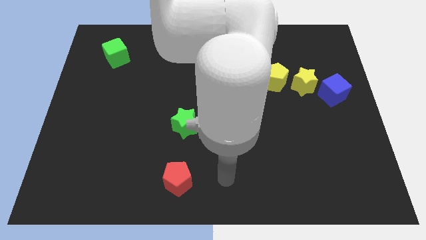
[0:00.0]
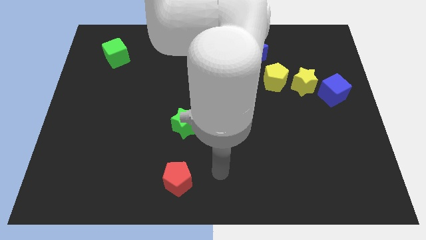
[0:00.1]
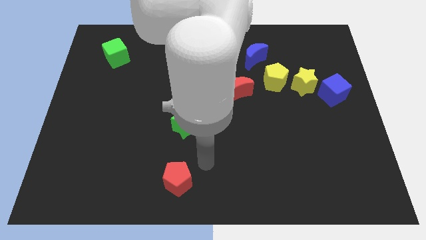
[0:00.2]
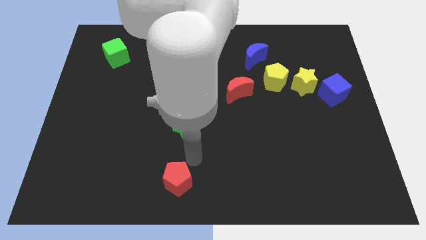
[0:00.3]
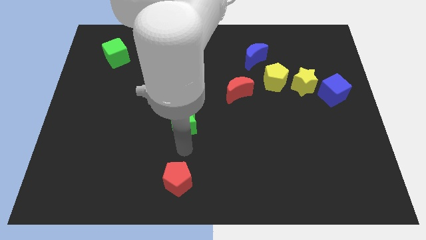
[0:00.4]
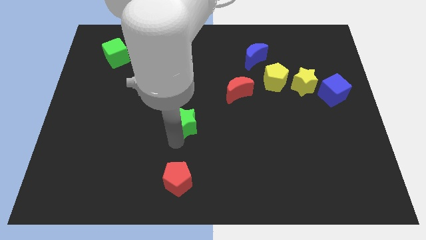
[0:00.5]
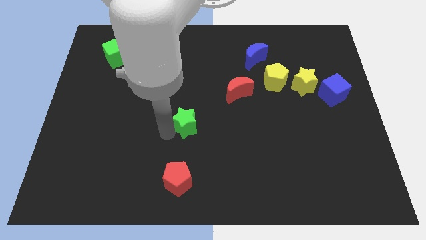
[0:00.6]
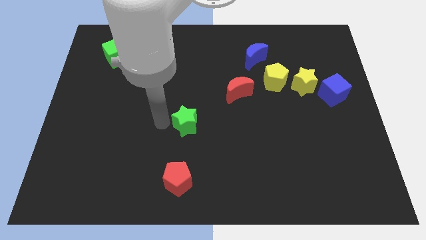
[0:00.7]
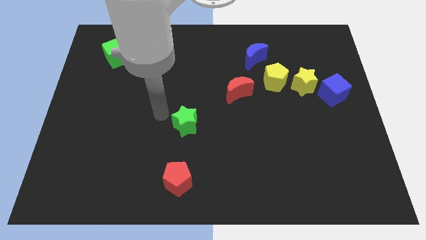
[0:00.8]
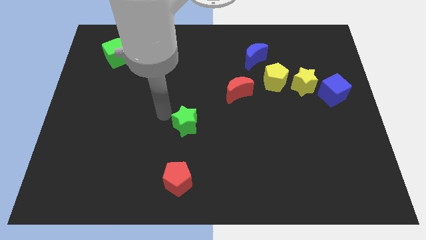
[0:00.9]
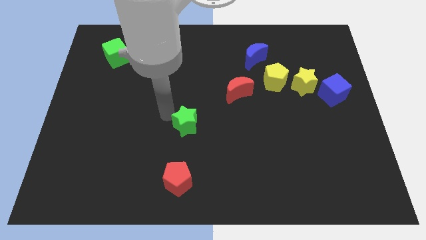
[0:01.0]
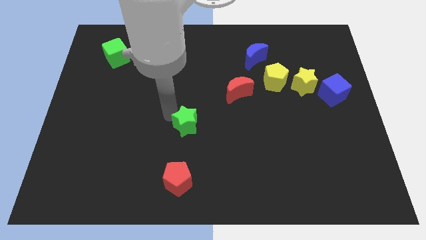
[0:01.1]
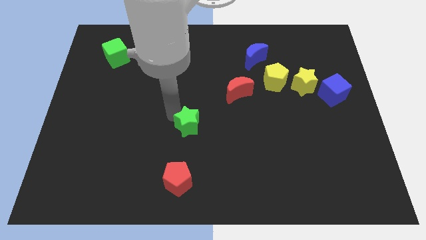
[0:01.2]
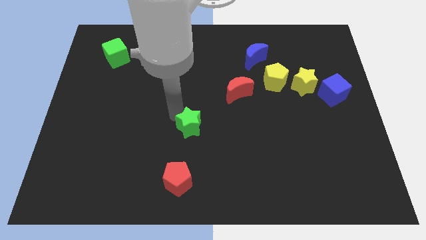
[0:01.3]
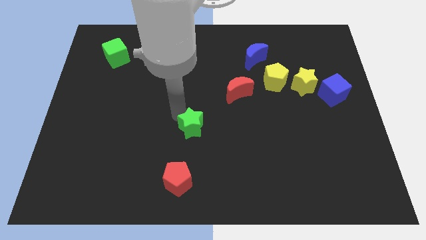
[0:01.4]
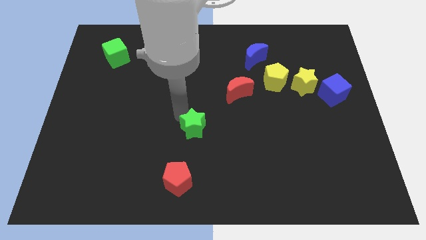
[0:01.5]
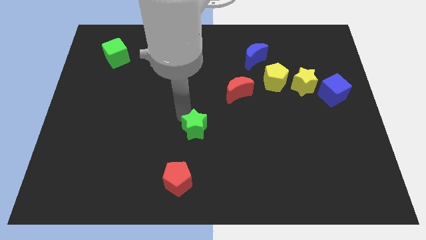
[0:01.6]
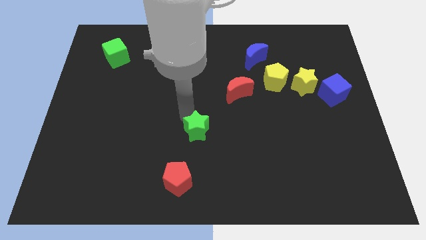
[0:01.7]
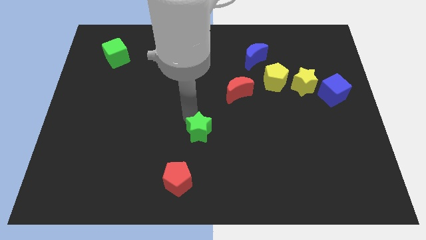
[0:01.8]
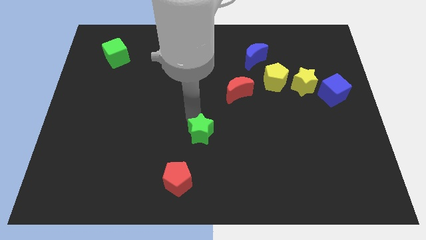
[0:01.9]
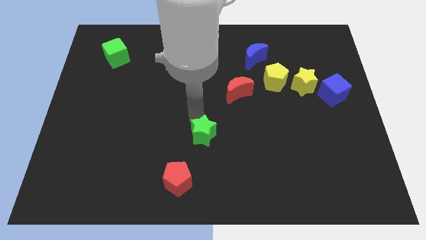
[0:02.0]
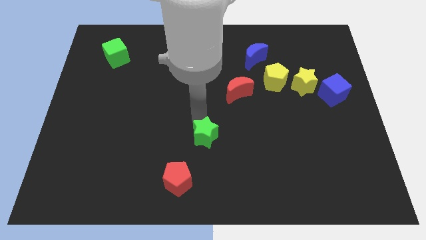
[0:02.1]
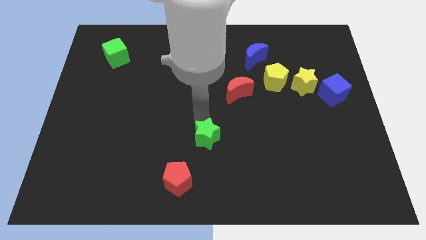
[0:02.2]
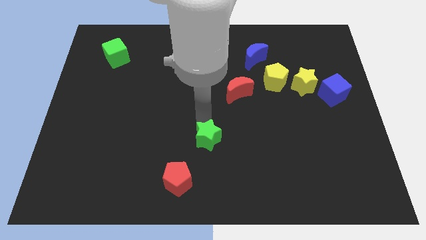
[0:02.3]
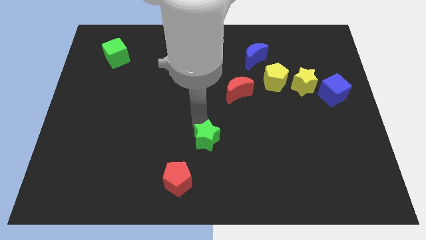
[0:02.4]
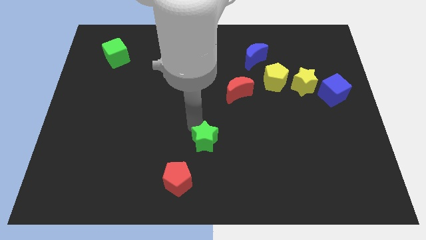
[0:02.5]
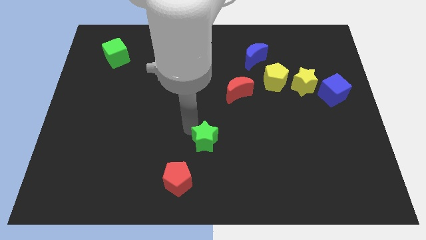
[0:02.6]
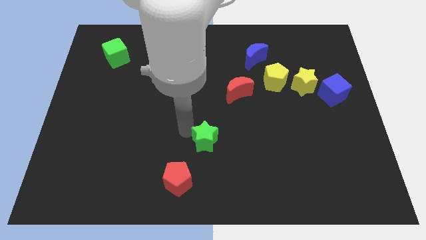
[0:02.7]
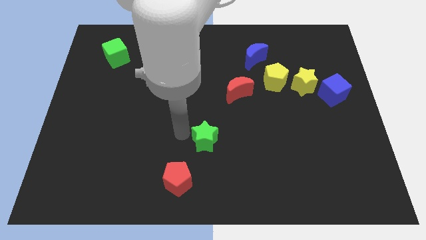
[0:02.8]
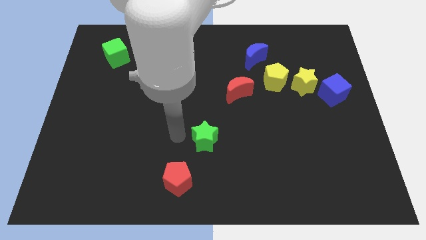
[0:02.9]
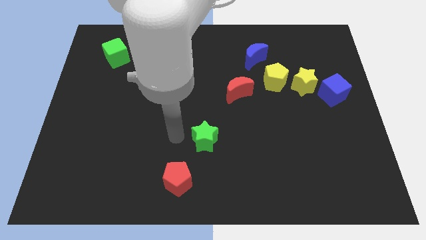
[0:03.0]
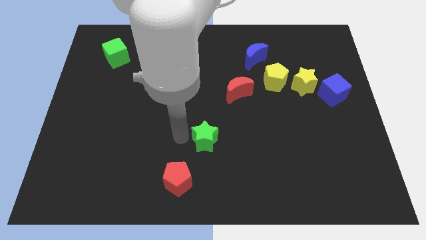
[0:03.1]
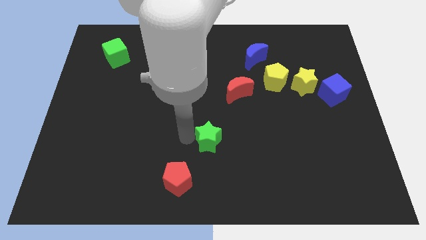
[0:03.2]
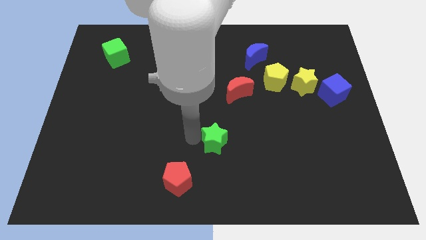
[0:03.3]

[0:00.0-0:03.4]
slide the green star a little down and to the right

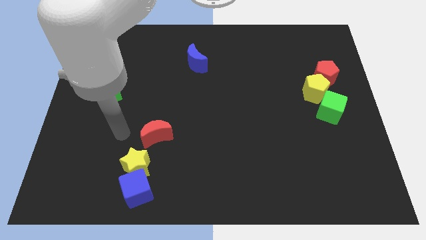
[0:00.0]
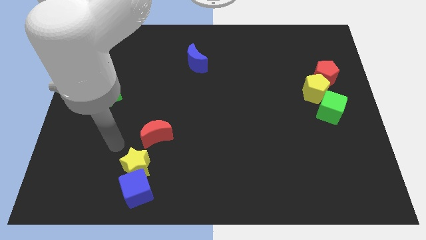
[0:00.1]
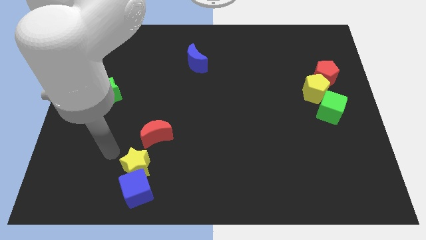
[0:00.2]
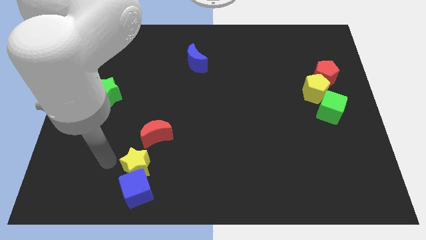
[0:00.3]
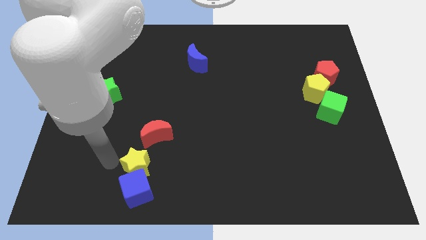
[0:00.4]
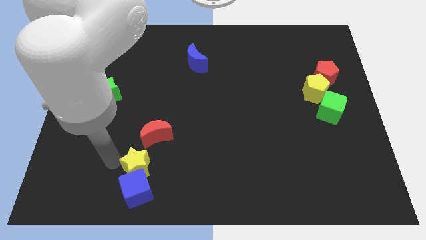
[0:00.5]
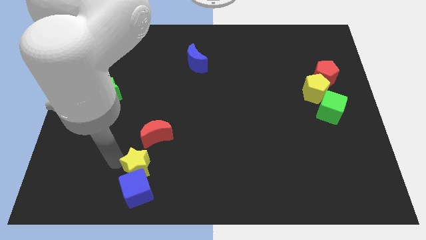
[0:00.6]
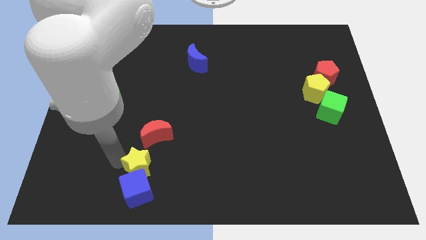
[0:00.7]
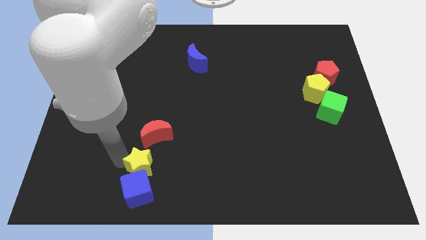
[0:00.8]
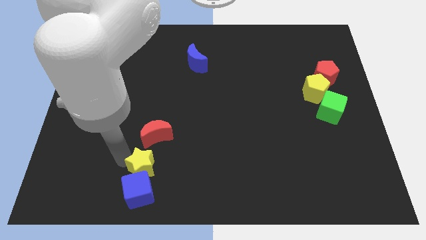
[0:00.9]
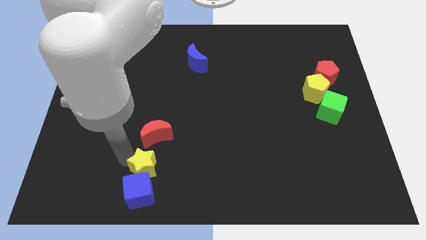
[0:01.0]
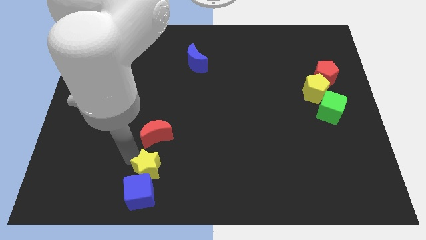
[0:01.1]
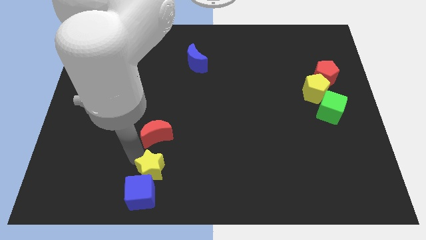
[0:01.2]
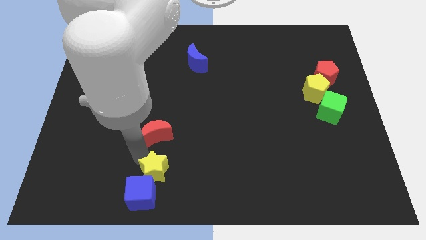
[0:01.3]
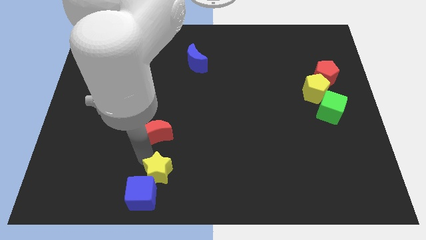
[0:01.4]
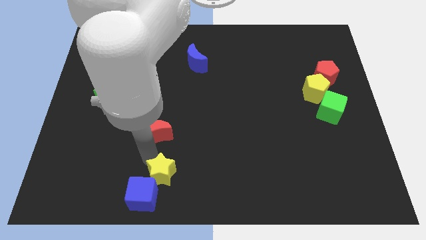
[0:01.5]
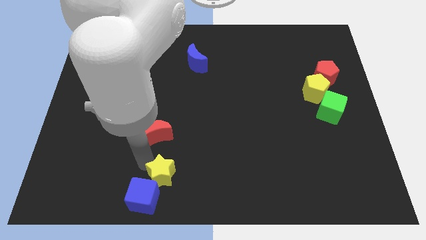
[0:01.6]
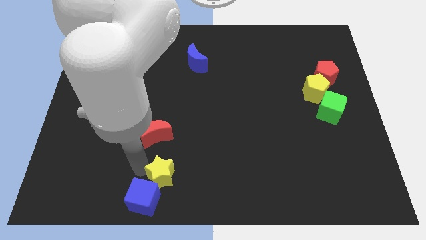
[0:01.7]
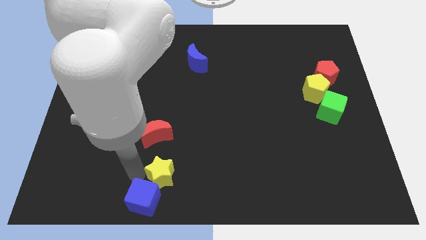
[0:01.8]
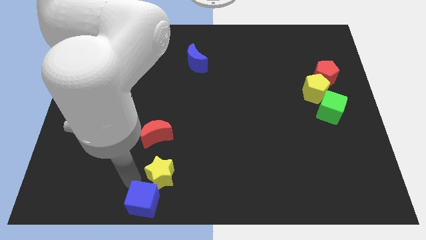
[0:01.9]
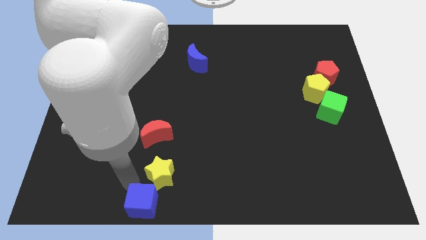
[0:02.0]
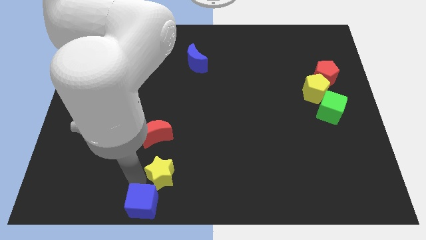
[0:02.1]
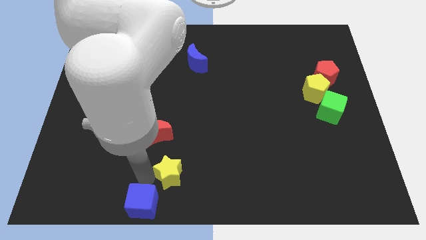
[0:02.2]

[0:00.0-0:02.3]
slightly move the yellow star right

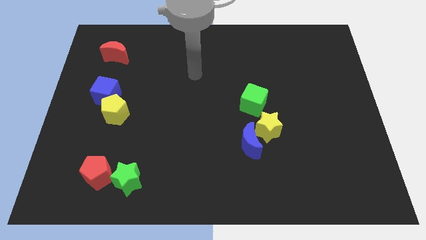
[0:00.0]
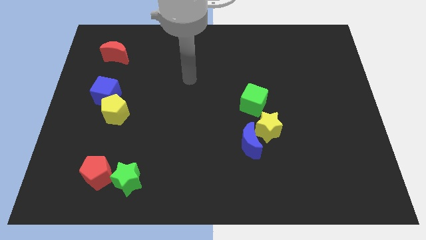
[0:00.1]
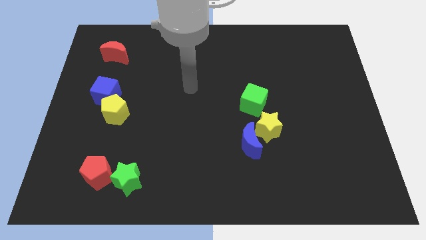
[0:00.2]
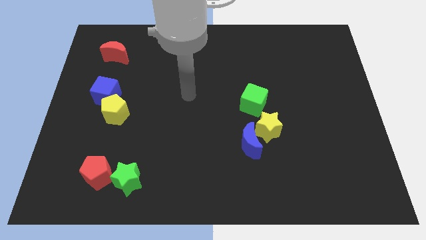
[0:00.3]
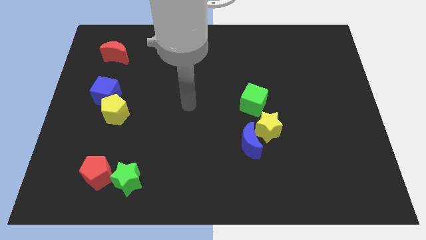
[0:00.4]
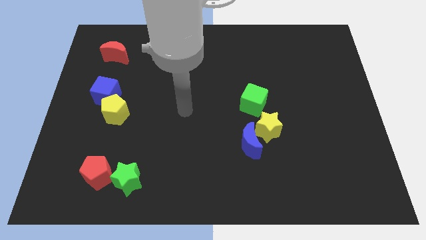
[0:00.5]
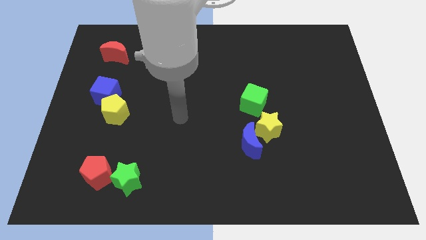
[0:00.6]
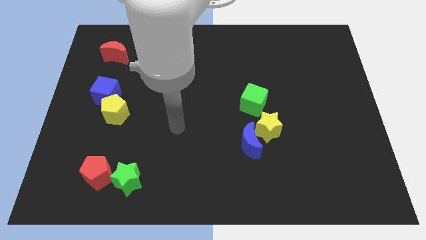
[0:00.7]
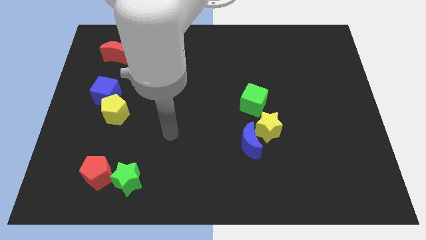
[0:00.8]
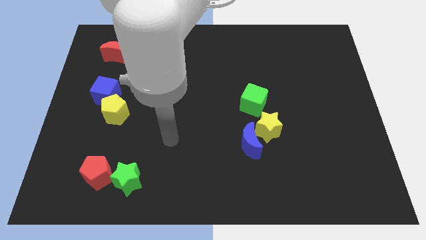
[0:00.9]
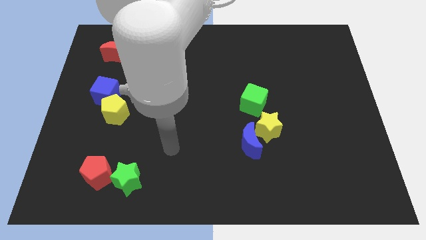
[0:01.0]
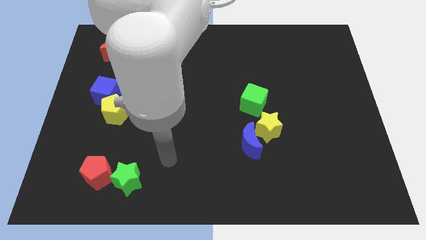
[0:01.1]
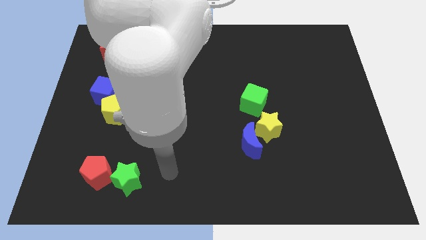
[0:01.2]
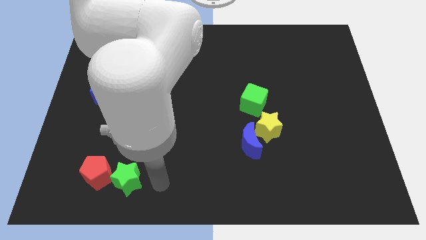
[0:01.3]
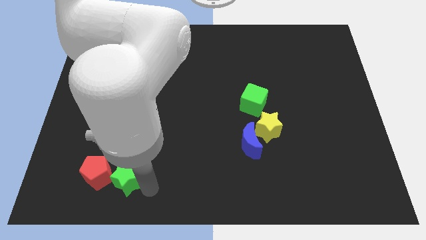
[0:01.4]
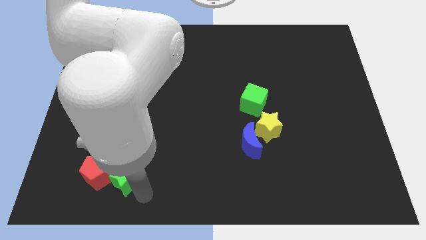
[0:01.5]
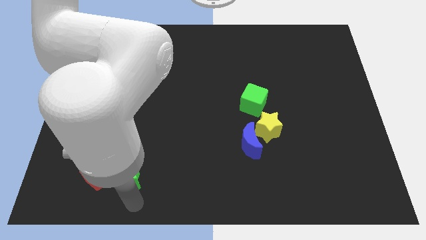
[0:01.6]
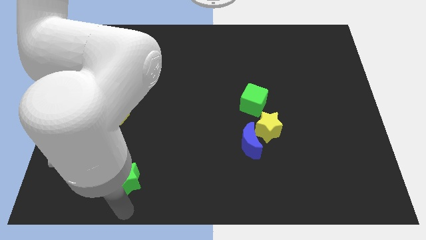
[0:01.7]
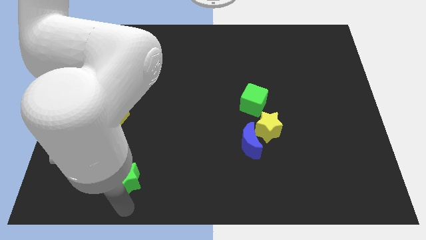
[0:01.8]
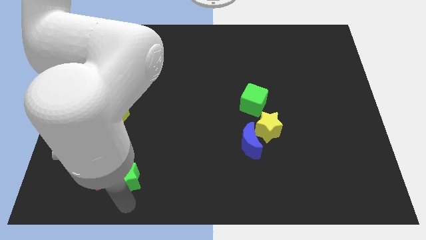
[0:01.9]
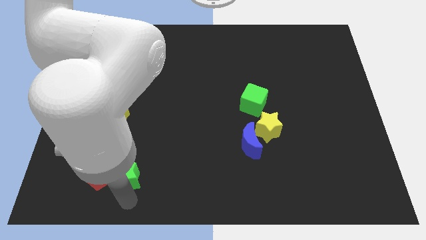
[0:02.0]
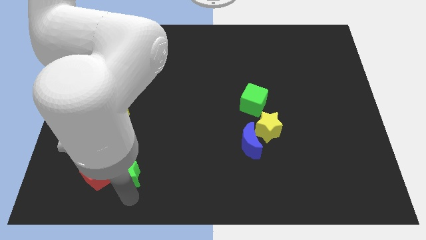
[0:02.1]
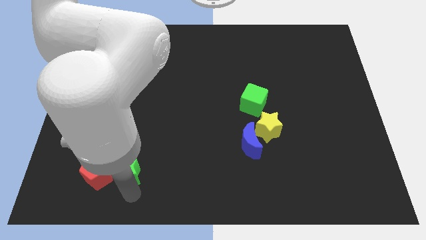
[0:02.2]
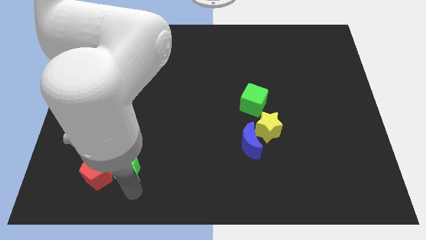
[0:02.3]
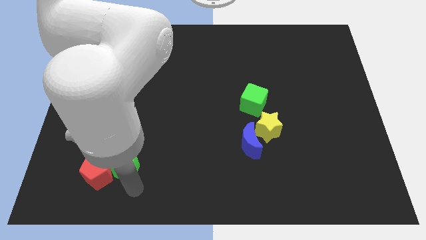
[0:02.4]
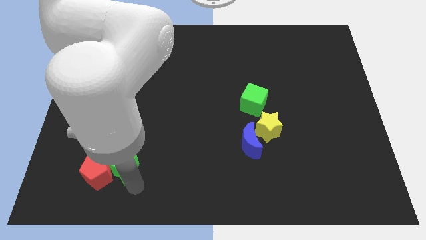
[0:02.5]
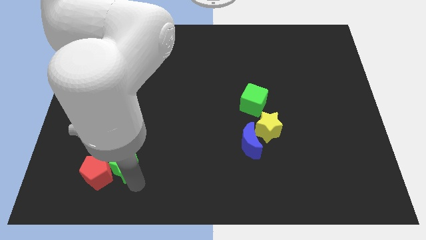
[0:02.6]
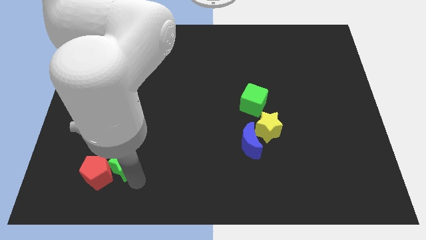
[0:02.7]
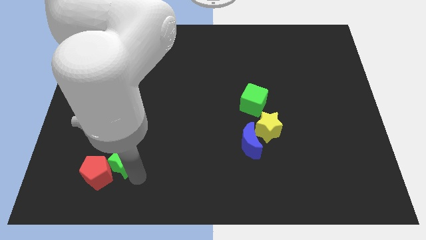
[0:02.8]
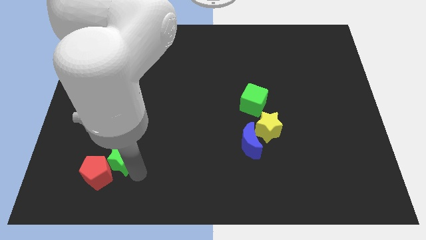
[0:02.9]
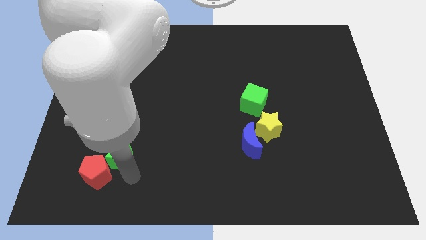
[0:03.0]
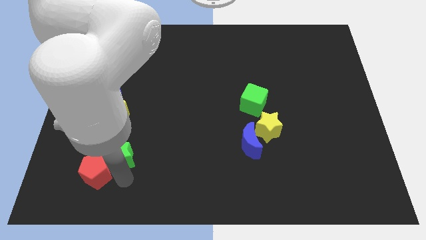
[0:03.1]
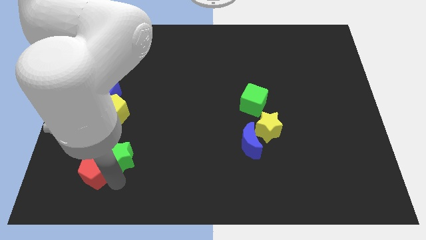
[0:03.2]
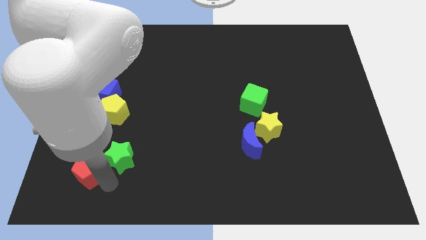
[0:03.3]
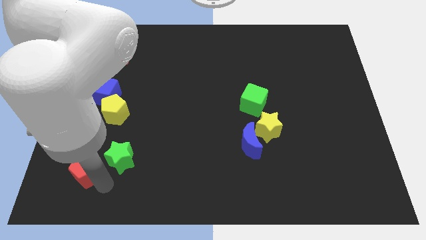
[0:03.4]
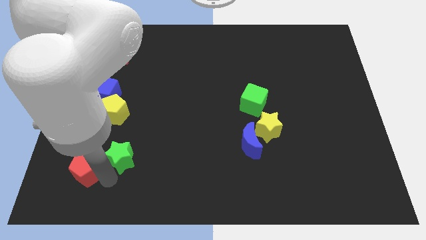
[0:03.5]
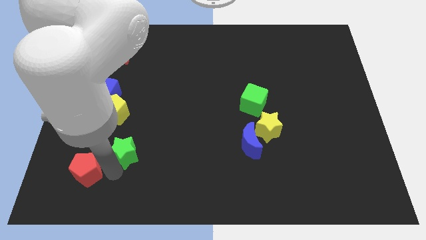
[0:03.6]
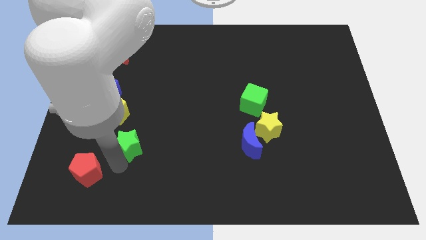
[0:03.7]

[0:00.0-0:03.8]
slide the green star somewhat up
